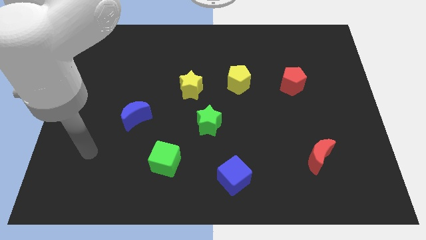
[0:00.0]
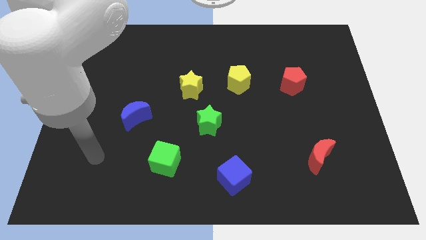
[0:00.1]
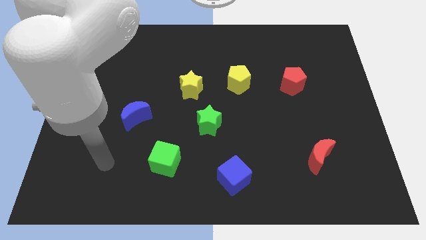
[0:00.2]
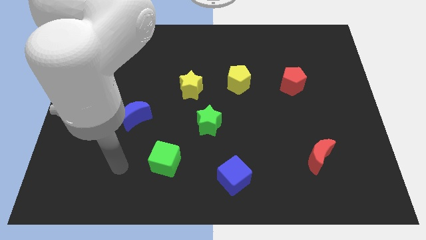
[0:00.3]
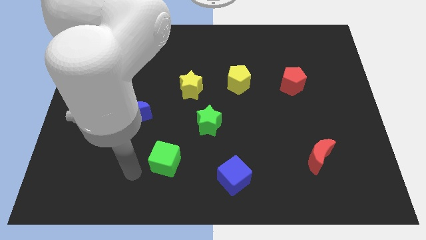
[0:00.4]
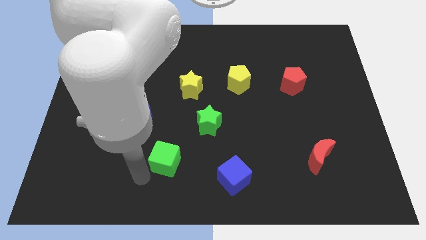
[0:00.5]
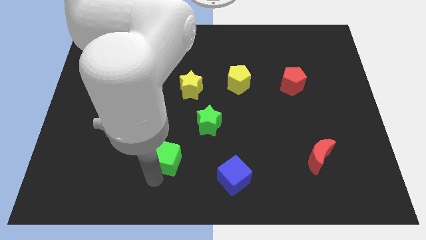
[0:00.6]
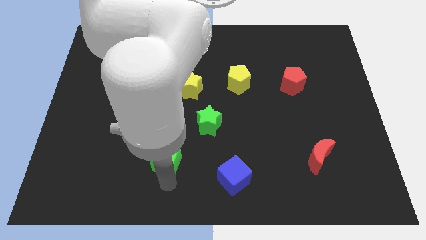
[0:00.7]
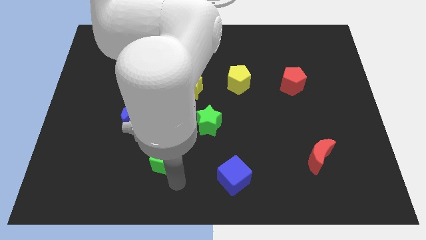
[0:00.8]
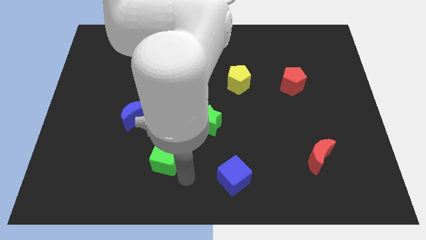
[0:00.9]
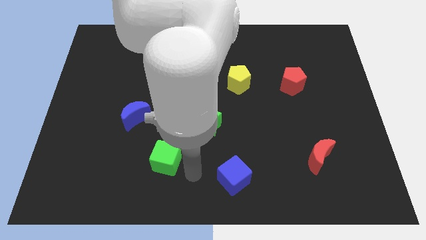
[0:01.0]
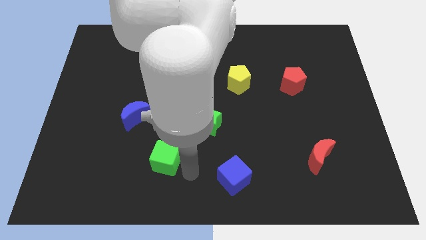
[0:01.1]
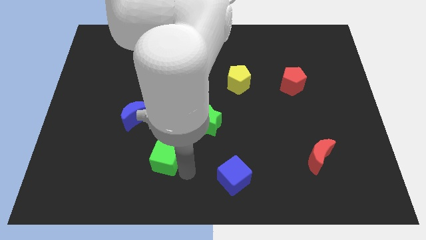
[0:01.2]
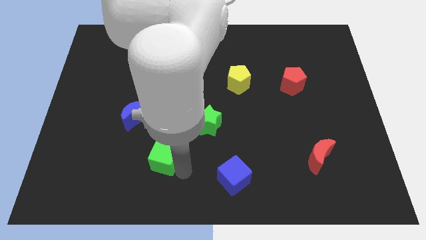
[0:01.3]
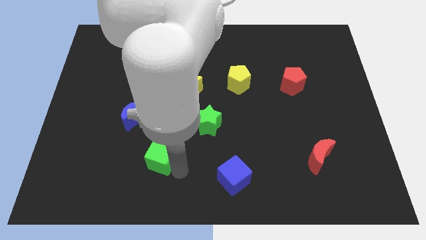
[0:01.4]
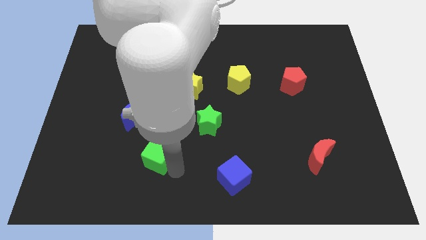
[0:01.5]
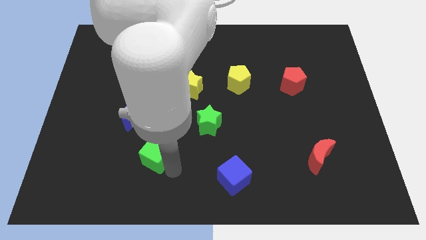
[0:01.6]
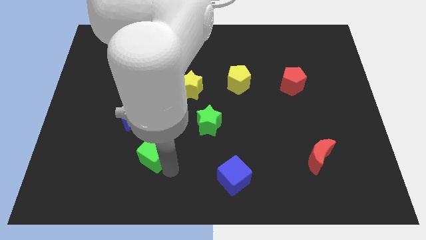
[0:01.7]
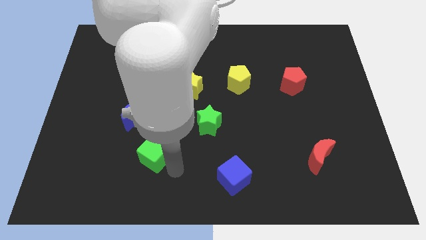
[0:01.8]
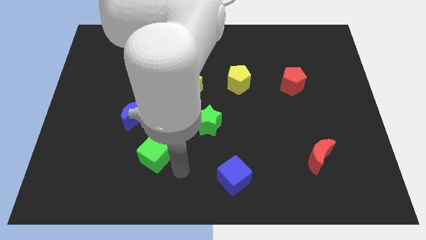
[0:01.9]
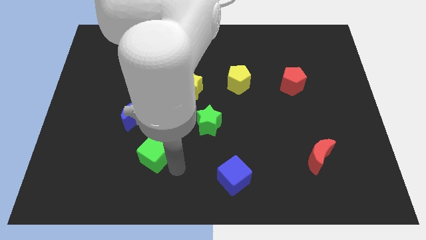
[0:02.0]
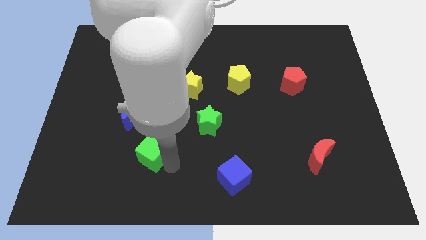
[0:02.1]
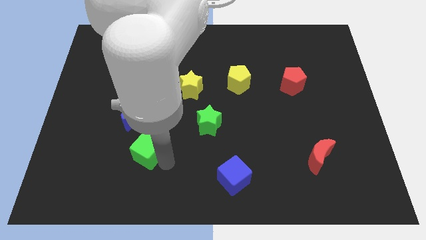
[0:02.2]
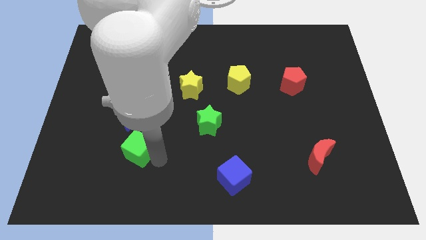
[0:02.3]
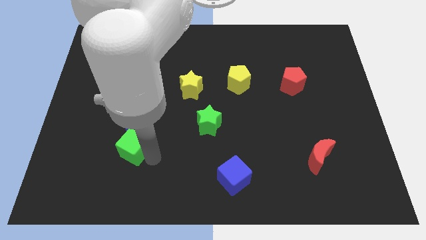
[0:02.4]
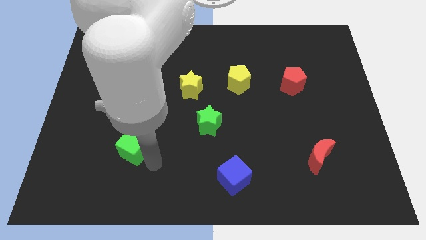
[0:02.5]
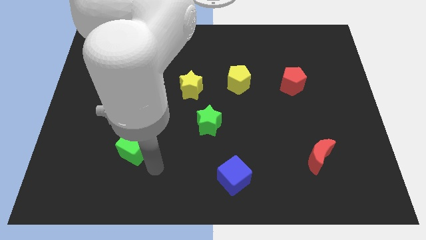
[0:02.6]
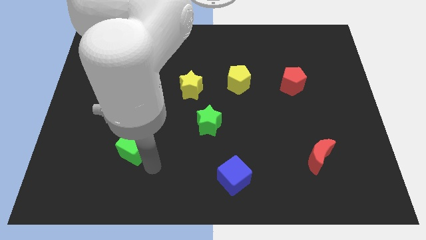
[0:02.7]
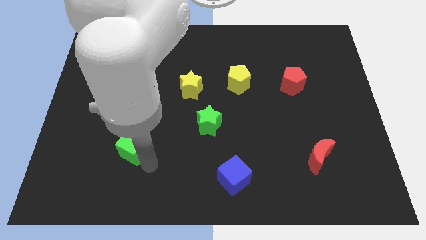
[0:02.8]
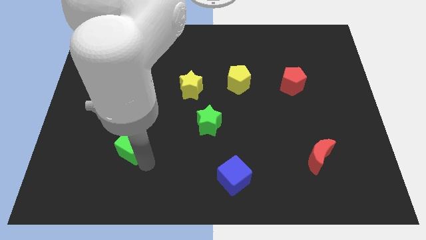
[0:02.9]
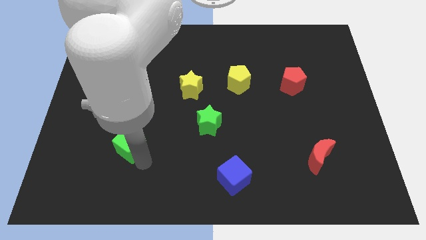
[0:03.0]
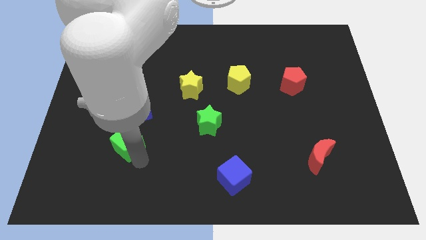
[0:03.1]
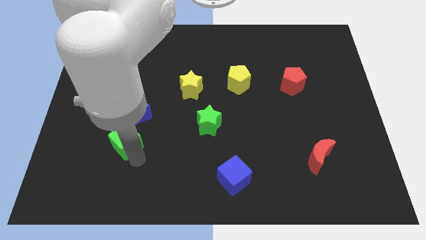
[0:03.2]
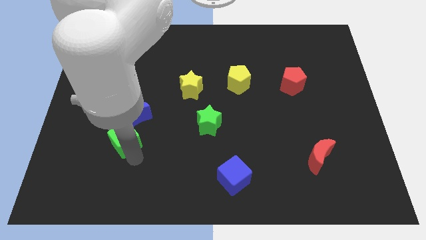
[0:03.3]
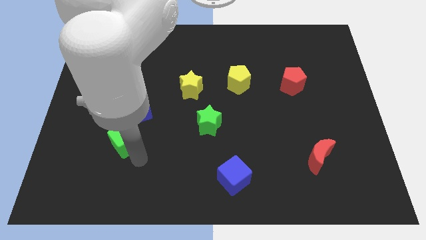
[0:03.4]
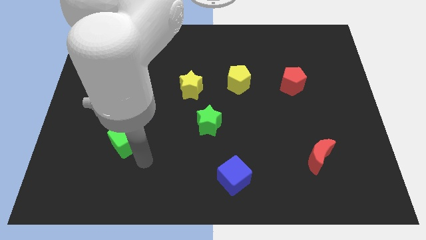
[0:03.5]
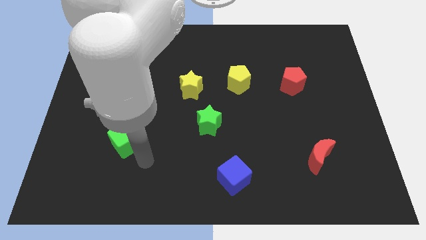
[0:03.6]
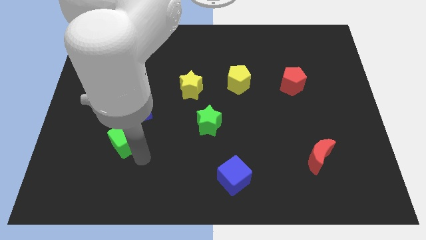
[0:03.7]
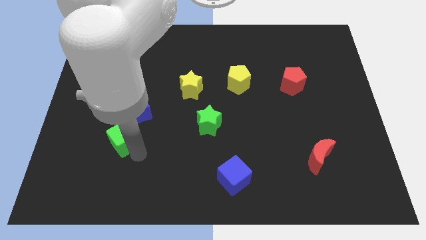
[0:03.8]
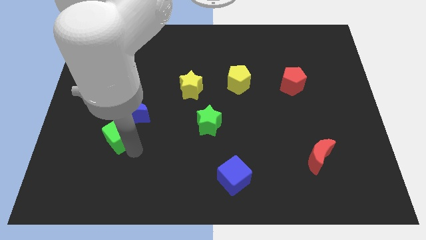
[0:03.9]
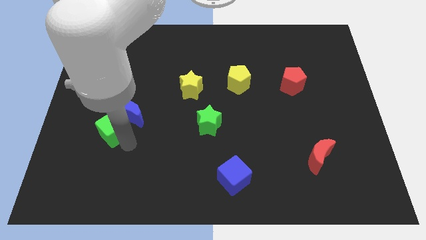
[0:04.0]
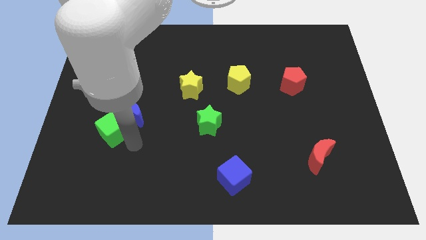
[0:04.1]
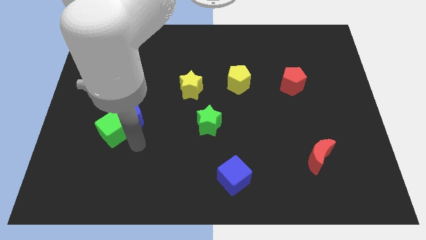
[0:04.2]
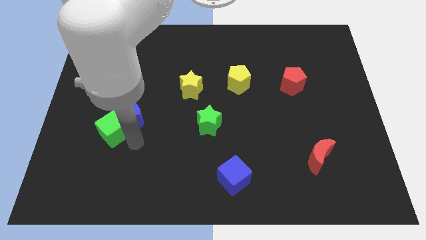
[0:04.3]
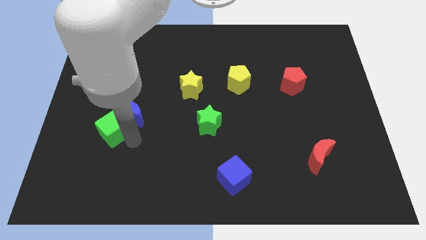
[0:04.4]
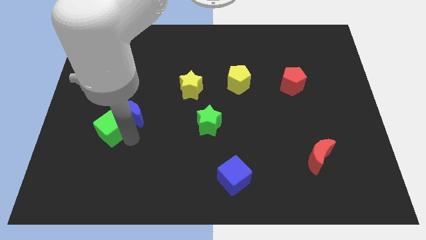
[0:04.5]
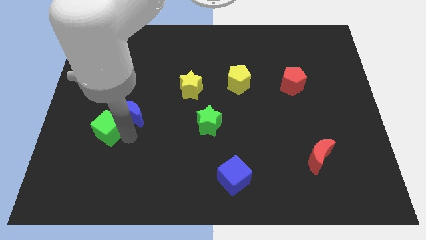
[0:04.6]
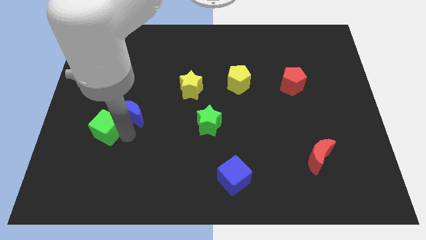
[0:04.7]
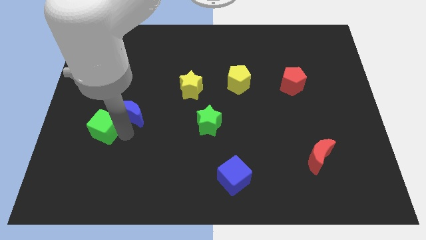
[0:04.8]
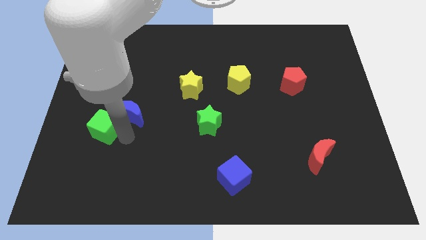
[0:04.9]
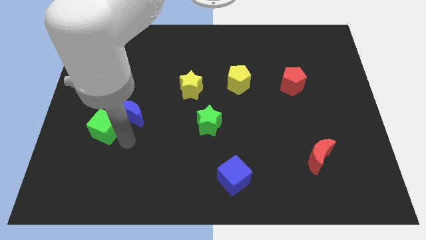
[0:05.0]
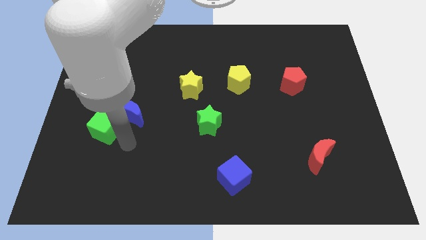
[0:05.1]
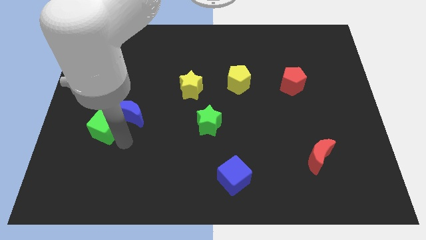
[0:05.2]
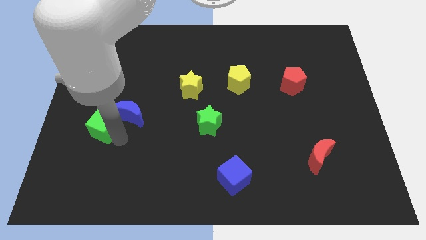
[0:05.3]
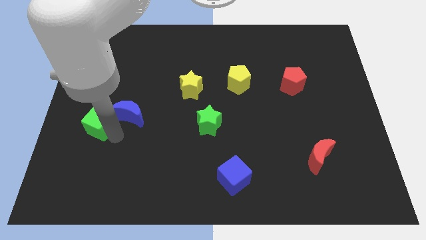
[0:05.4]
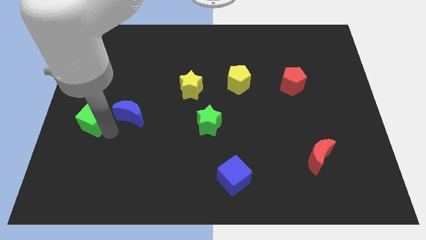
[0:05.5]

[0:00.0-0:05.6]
slide the green cube to the left side of the board

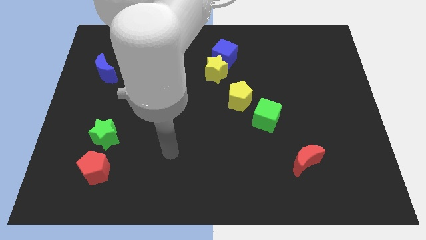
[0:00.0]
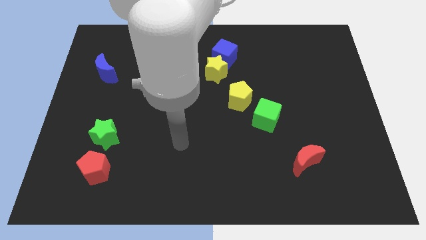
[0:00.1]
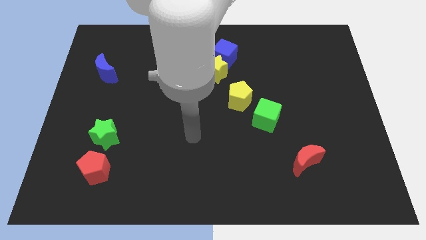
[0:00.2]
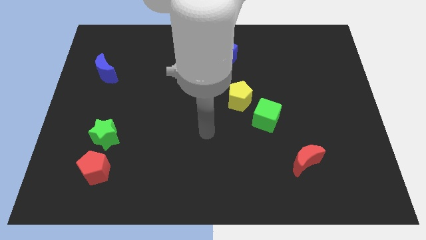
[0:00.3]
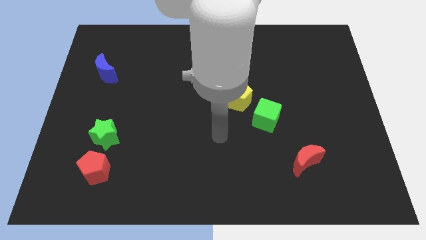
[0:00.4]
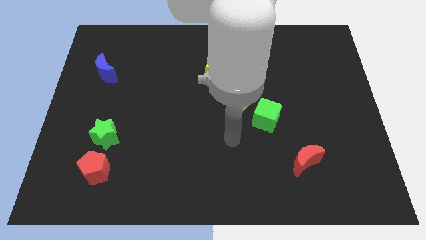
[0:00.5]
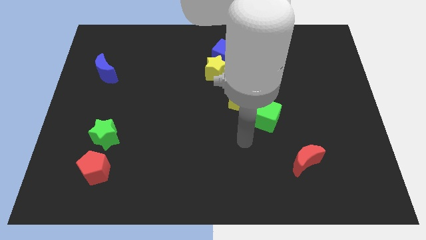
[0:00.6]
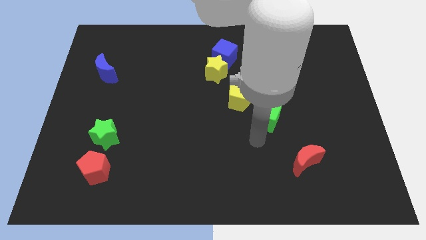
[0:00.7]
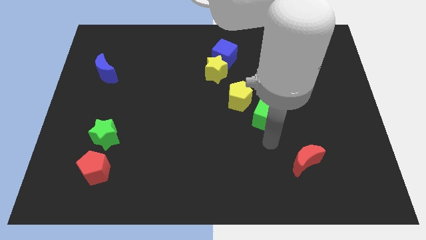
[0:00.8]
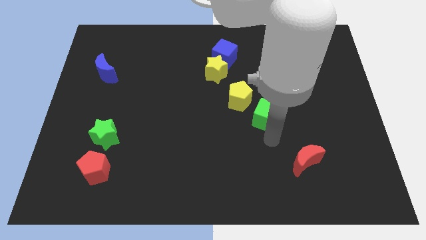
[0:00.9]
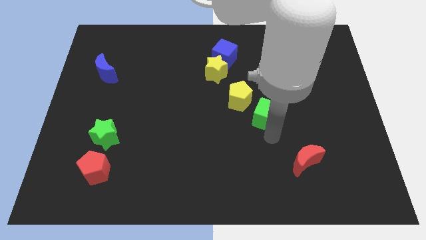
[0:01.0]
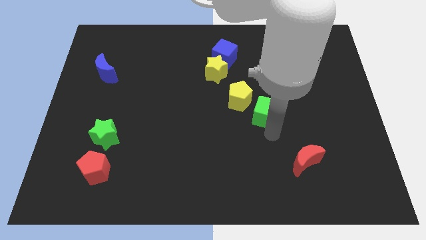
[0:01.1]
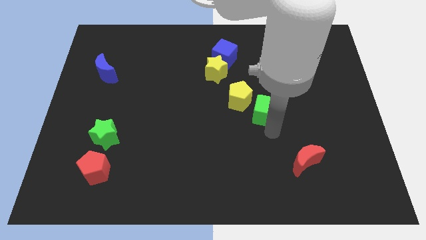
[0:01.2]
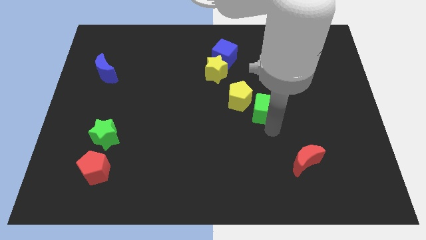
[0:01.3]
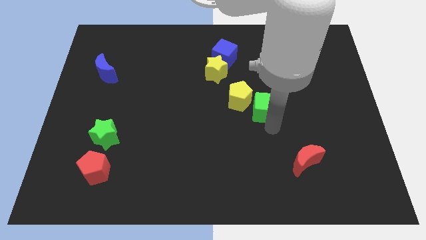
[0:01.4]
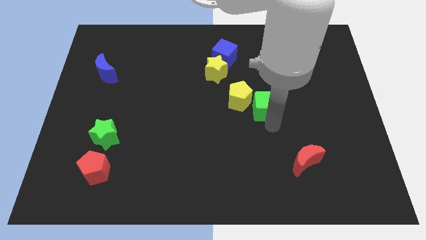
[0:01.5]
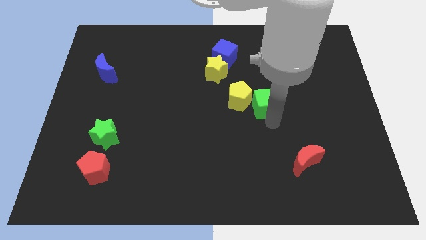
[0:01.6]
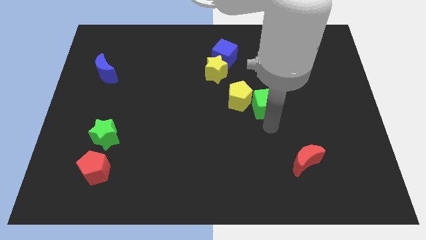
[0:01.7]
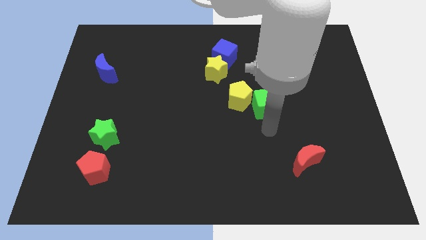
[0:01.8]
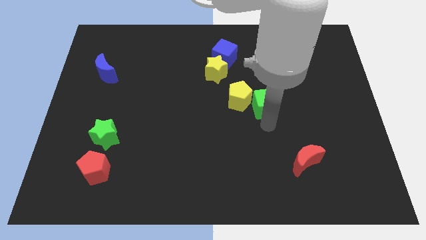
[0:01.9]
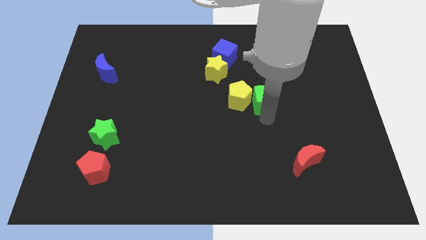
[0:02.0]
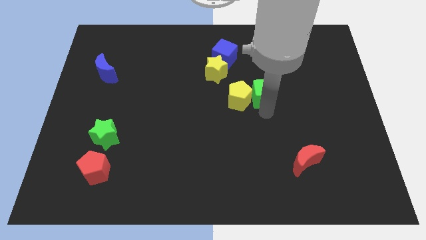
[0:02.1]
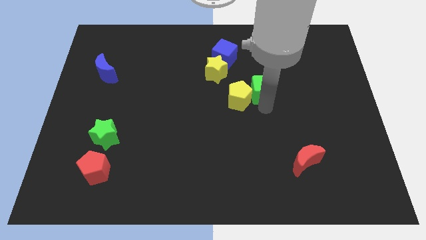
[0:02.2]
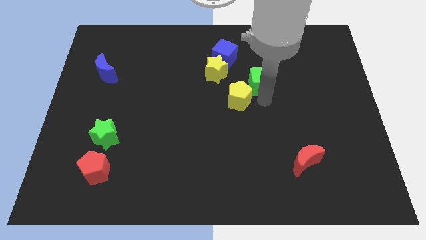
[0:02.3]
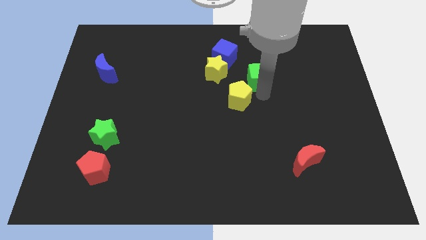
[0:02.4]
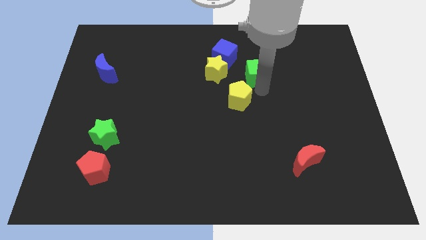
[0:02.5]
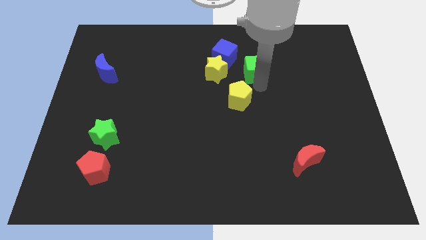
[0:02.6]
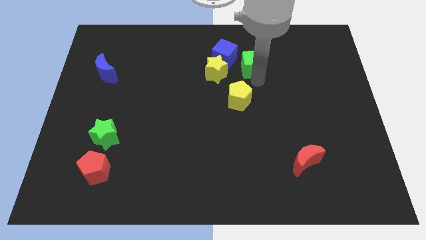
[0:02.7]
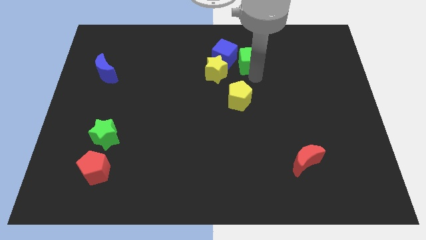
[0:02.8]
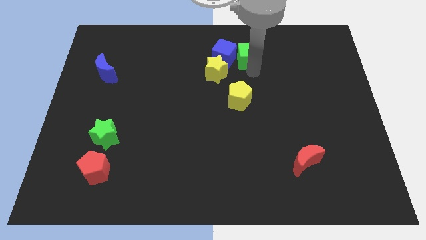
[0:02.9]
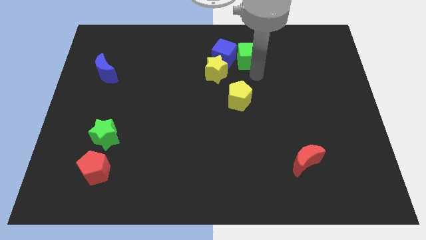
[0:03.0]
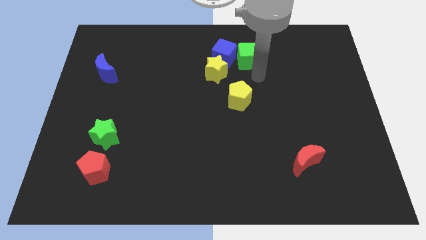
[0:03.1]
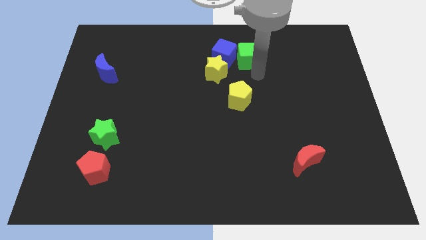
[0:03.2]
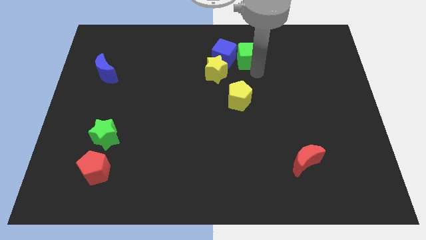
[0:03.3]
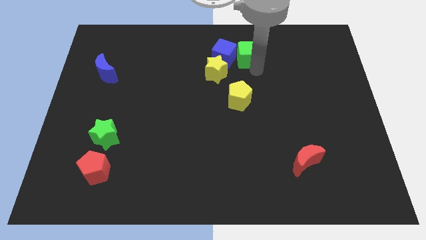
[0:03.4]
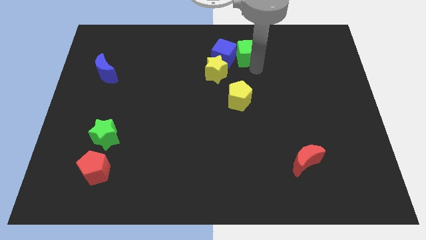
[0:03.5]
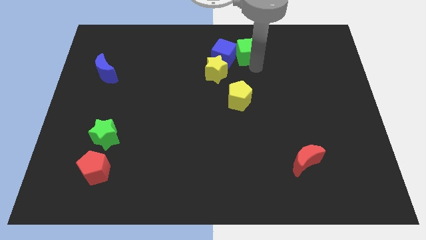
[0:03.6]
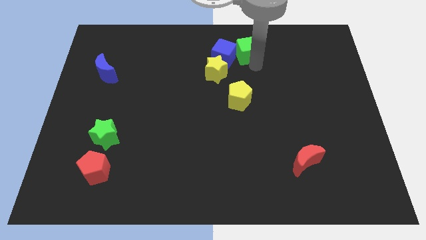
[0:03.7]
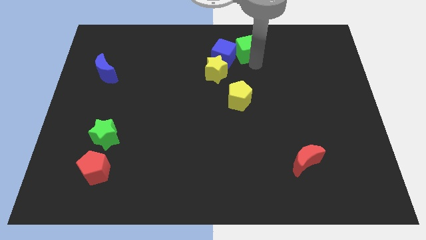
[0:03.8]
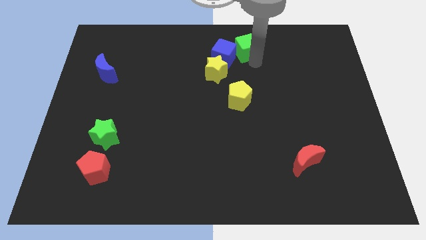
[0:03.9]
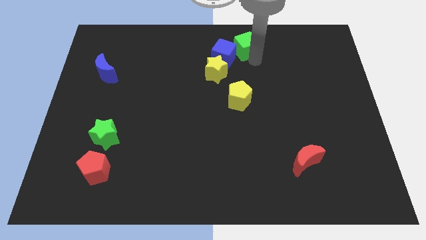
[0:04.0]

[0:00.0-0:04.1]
push the green cube to the top side
